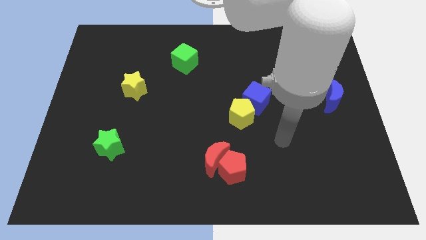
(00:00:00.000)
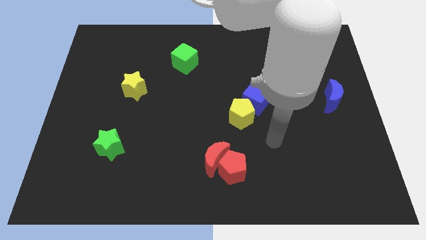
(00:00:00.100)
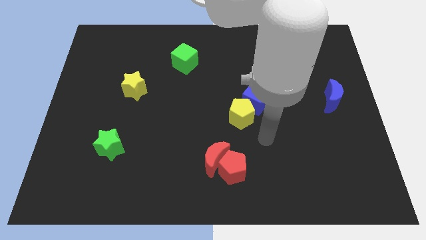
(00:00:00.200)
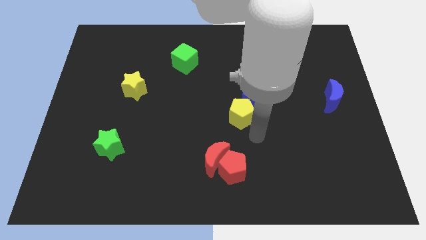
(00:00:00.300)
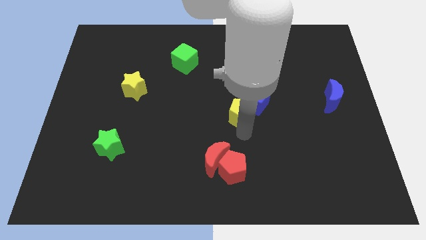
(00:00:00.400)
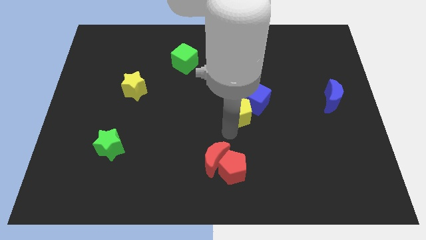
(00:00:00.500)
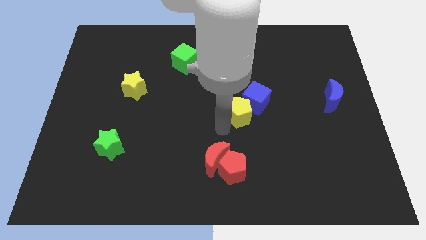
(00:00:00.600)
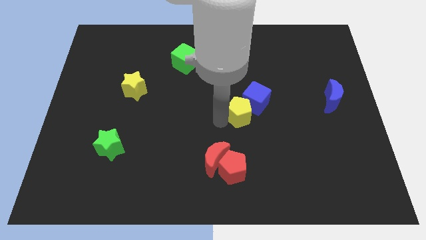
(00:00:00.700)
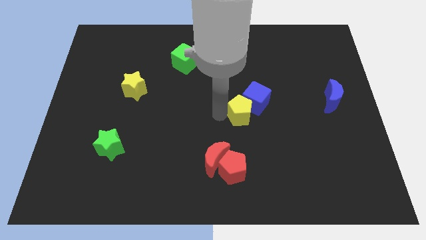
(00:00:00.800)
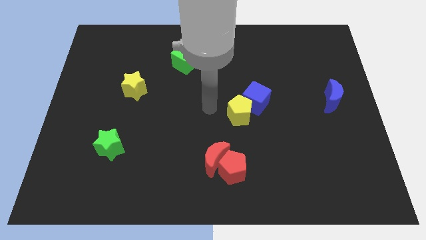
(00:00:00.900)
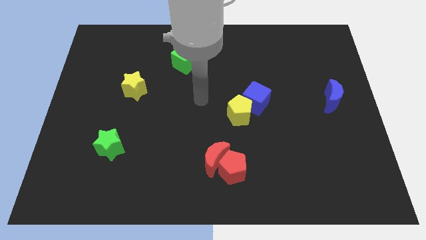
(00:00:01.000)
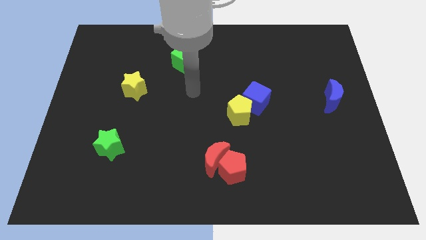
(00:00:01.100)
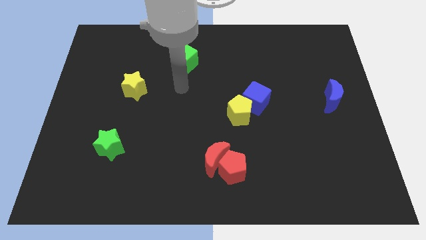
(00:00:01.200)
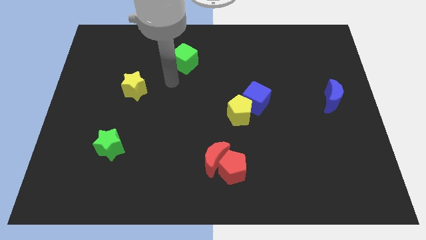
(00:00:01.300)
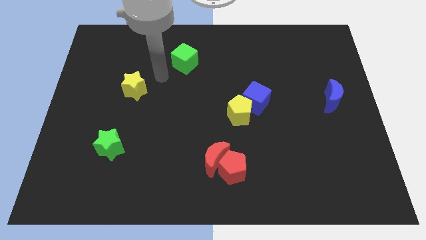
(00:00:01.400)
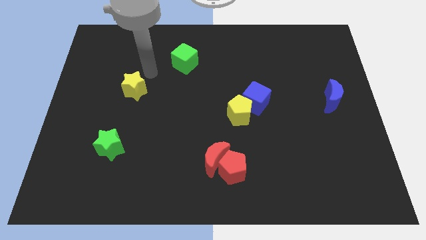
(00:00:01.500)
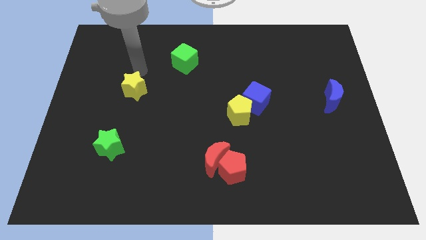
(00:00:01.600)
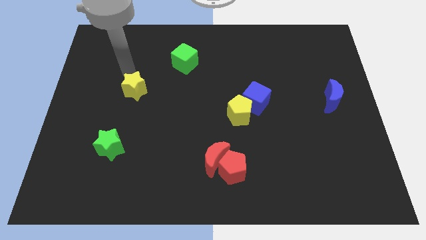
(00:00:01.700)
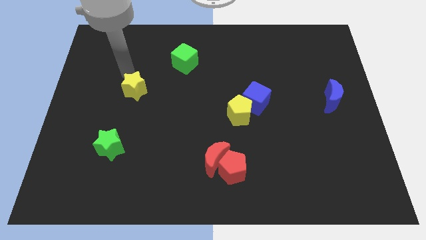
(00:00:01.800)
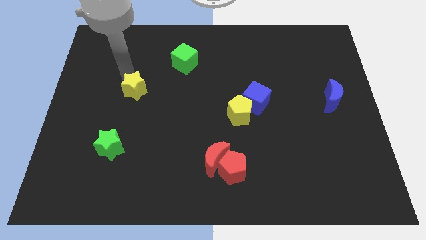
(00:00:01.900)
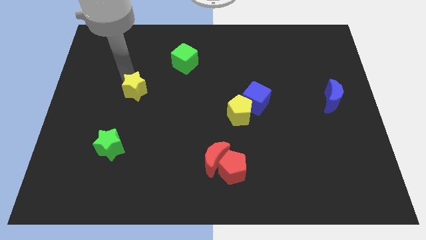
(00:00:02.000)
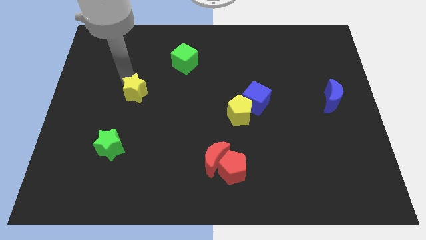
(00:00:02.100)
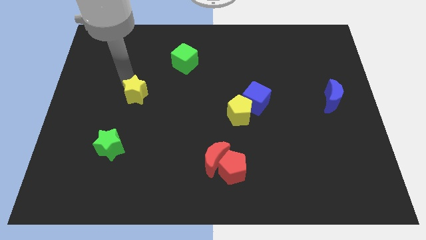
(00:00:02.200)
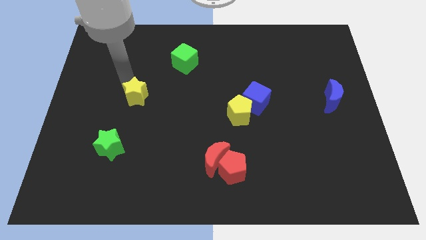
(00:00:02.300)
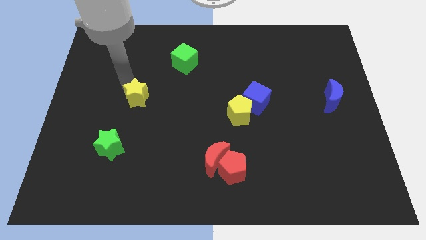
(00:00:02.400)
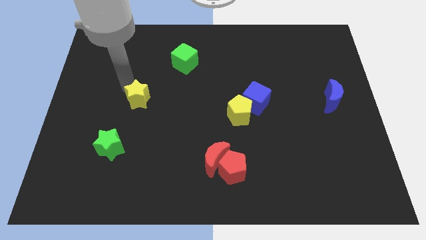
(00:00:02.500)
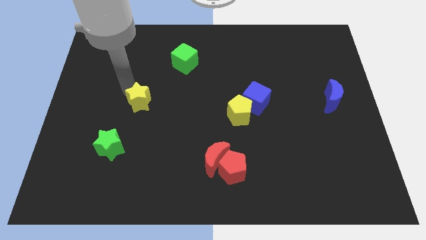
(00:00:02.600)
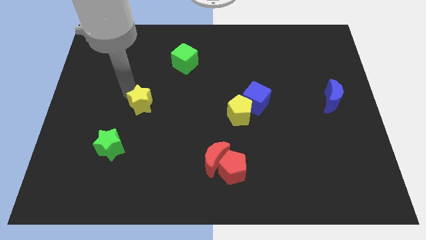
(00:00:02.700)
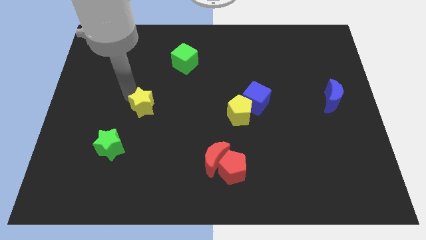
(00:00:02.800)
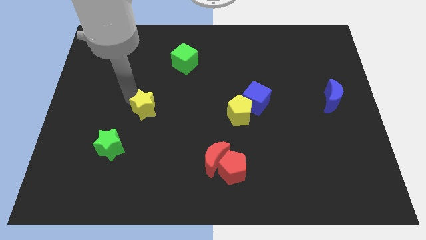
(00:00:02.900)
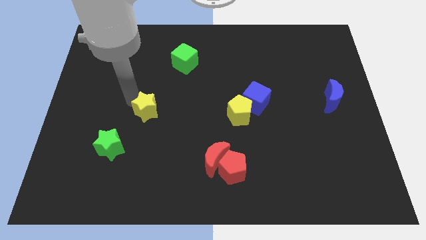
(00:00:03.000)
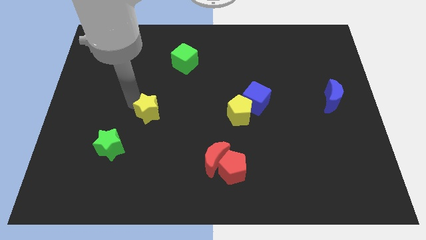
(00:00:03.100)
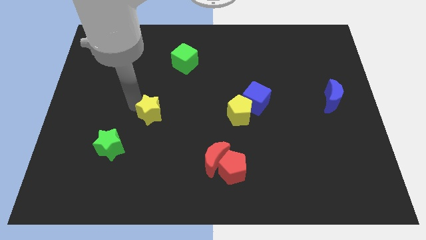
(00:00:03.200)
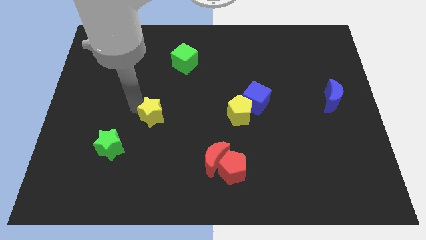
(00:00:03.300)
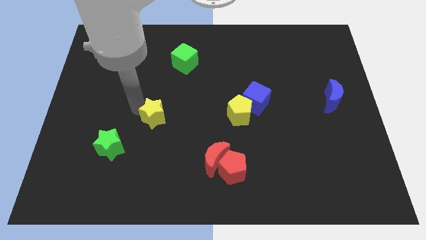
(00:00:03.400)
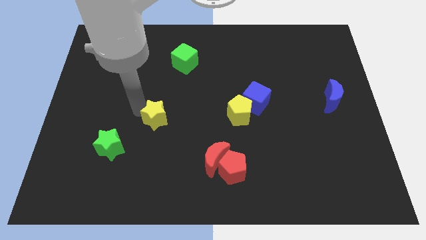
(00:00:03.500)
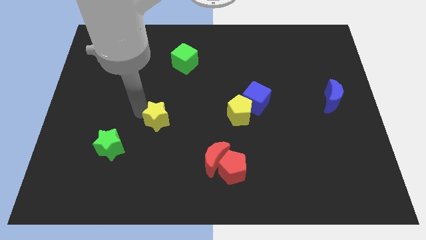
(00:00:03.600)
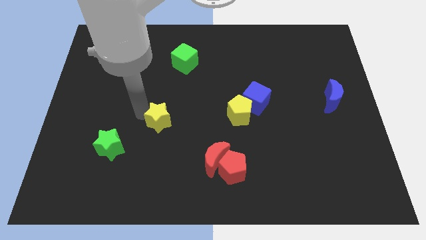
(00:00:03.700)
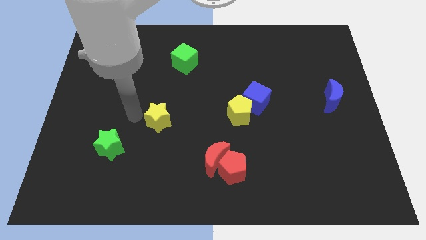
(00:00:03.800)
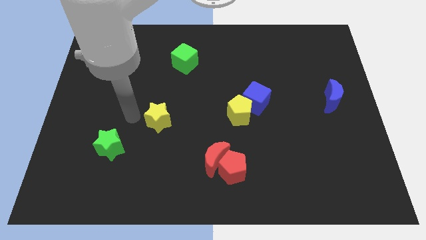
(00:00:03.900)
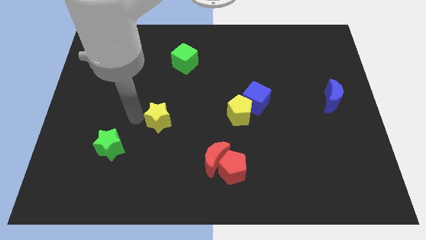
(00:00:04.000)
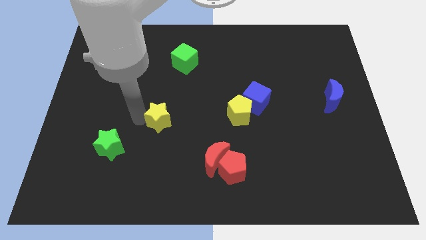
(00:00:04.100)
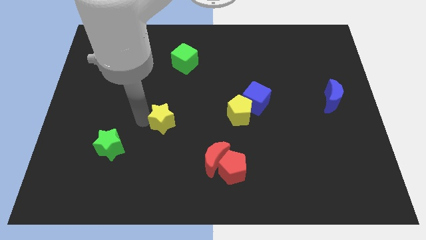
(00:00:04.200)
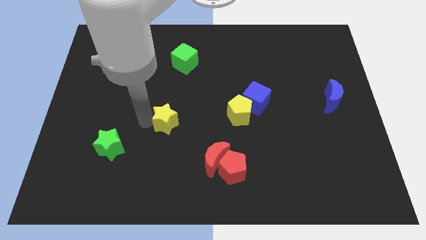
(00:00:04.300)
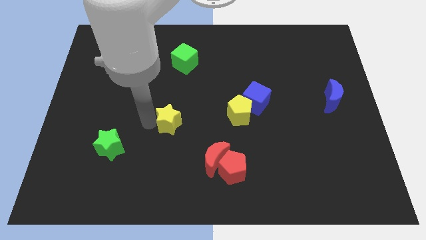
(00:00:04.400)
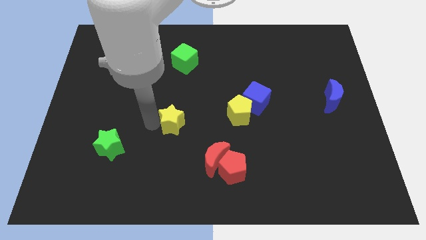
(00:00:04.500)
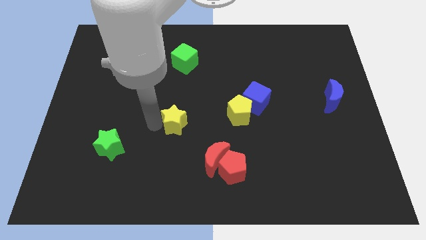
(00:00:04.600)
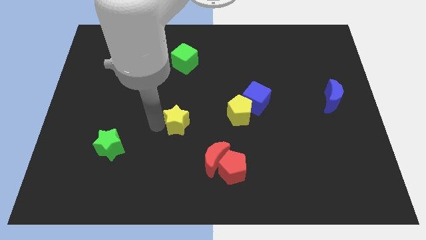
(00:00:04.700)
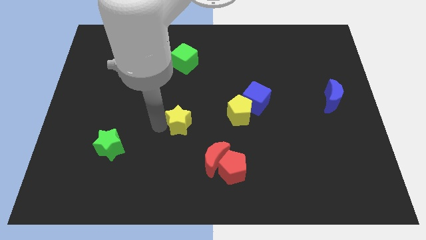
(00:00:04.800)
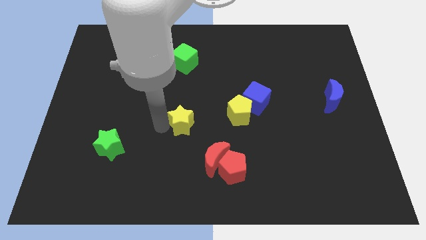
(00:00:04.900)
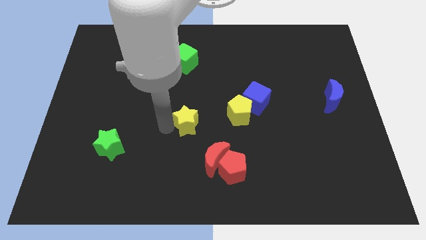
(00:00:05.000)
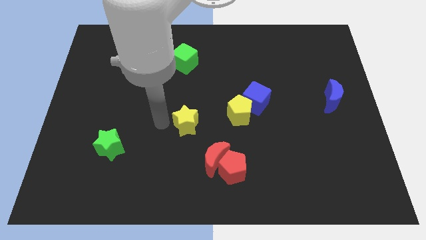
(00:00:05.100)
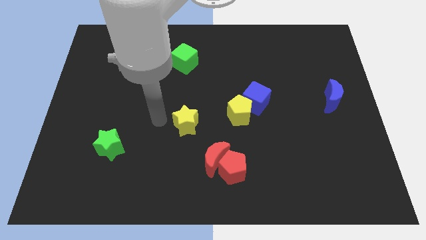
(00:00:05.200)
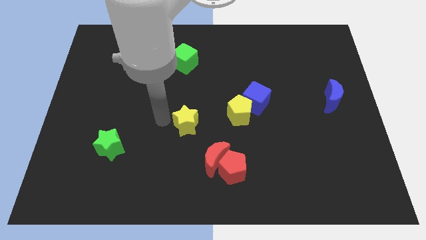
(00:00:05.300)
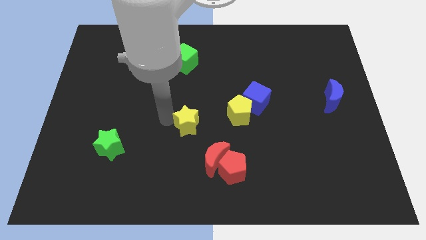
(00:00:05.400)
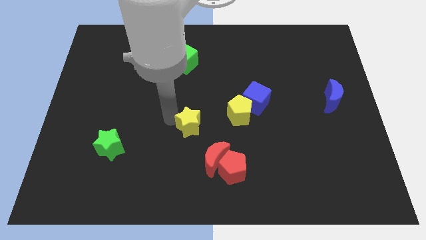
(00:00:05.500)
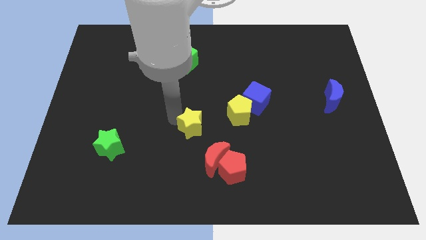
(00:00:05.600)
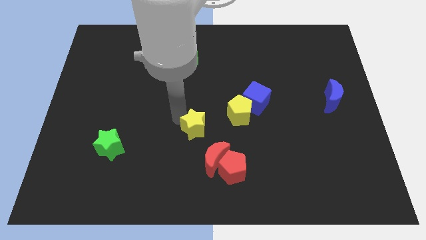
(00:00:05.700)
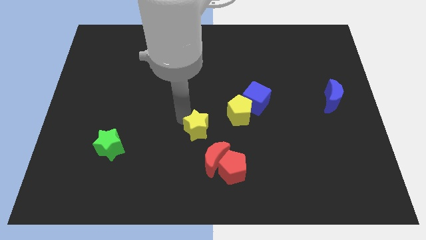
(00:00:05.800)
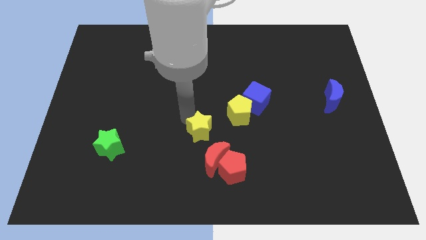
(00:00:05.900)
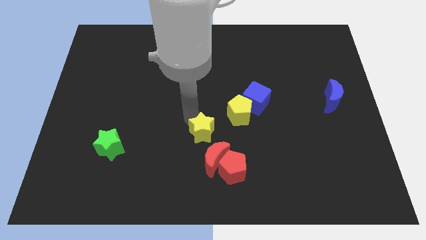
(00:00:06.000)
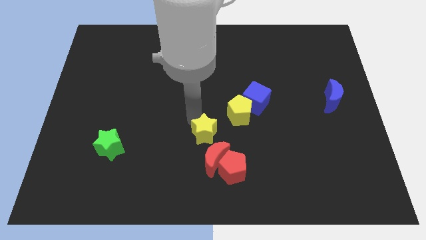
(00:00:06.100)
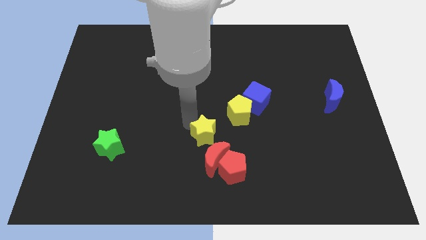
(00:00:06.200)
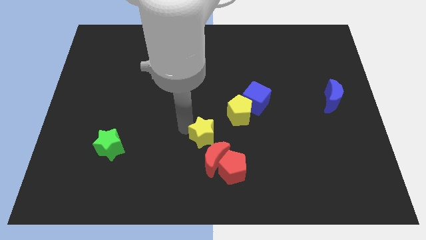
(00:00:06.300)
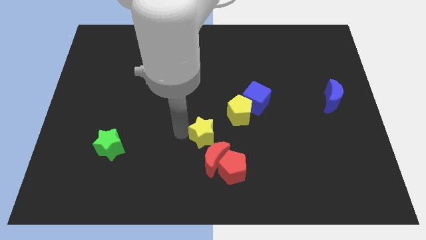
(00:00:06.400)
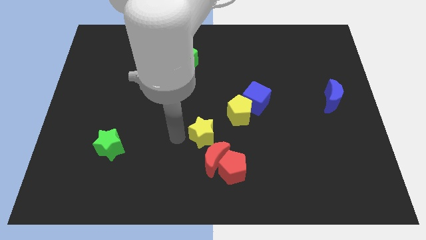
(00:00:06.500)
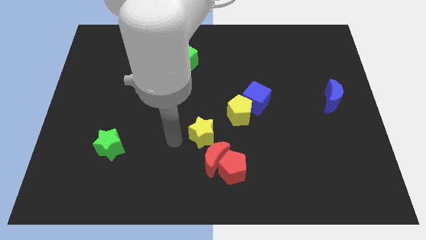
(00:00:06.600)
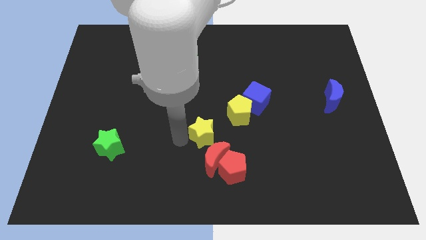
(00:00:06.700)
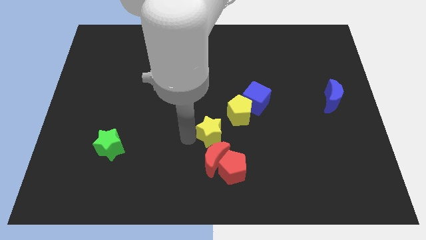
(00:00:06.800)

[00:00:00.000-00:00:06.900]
move the yellow star to the top of the red pentagon
